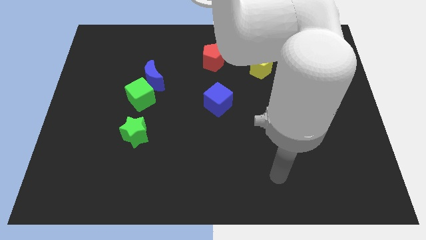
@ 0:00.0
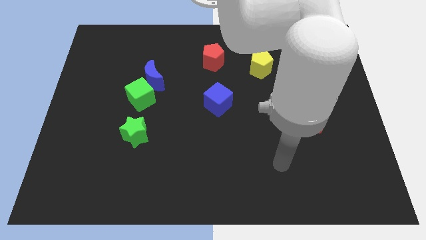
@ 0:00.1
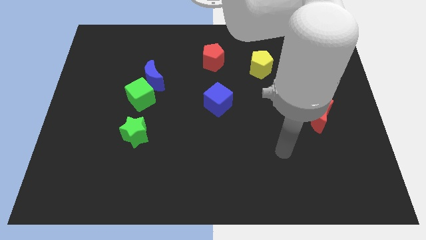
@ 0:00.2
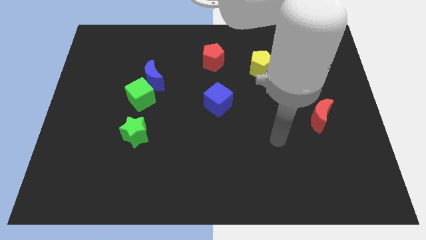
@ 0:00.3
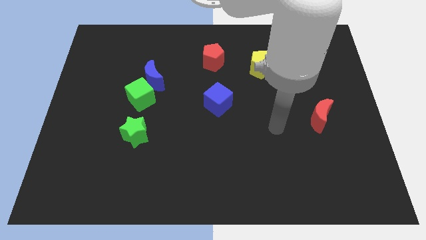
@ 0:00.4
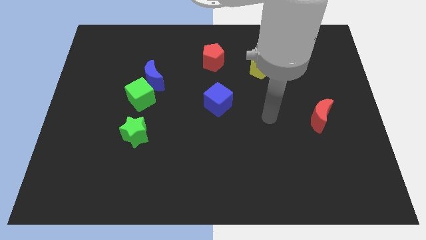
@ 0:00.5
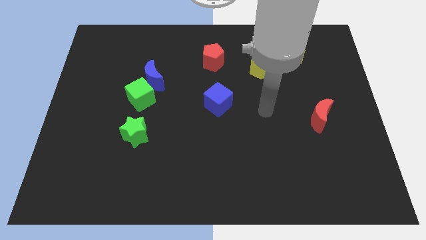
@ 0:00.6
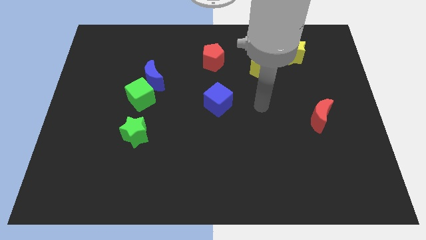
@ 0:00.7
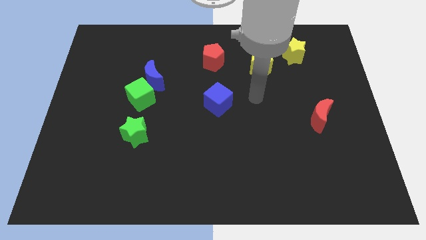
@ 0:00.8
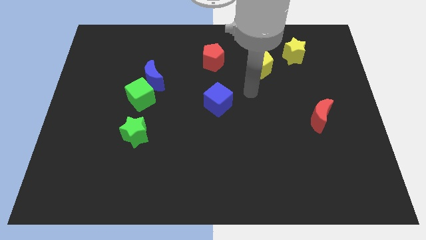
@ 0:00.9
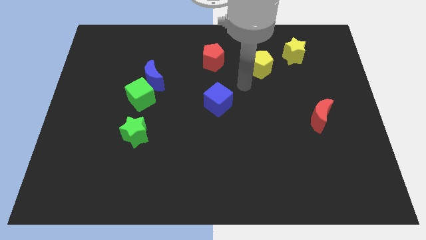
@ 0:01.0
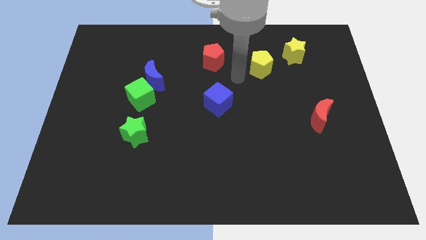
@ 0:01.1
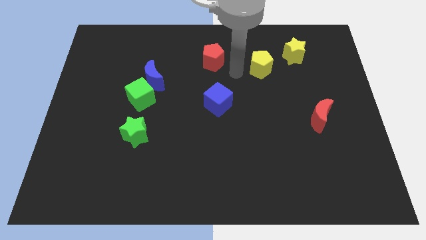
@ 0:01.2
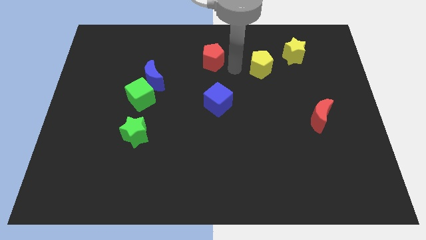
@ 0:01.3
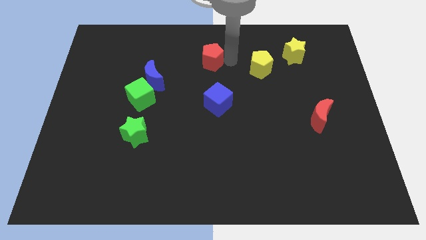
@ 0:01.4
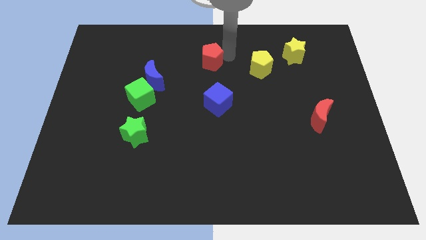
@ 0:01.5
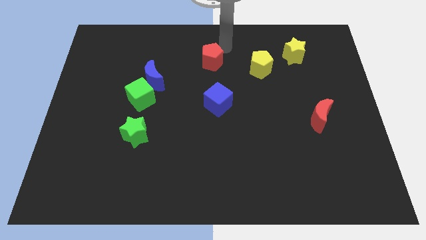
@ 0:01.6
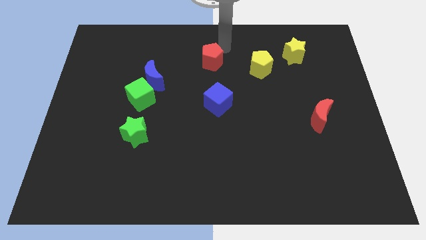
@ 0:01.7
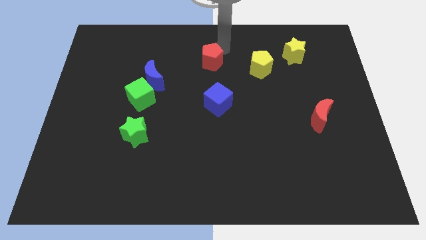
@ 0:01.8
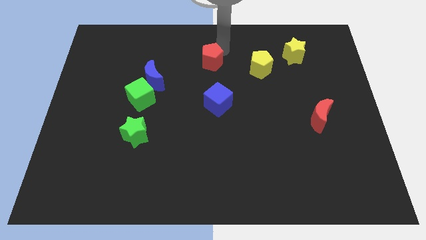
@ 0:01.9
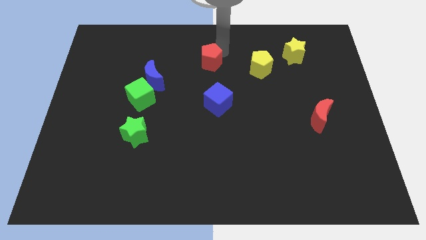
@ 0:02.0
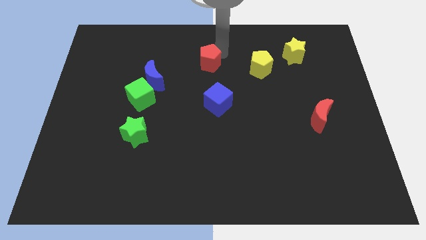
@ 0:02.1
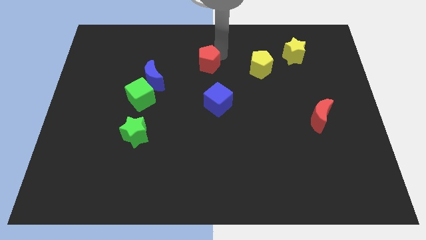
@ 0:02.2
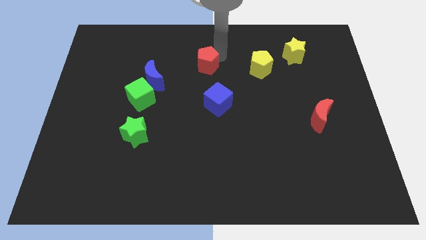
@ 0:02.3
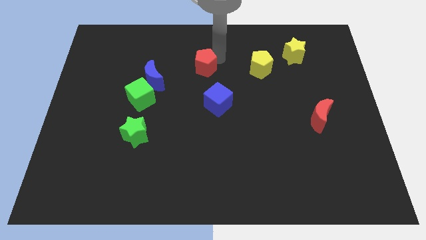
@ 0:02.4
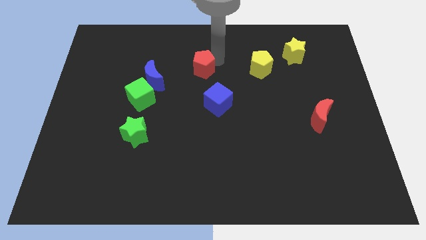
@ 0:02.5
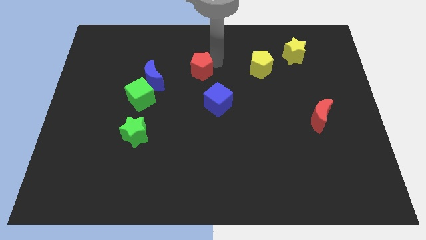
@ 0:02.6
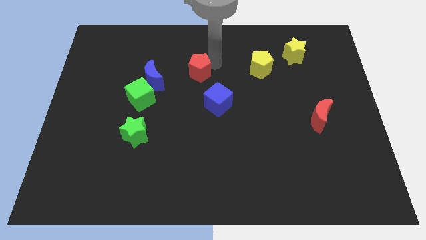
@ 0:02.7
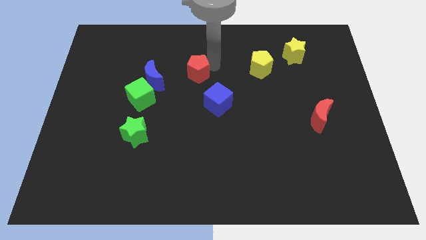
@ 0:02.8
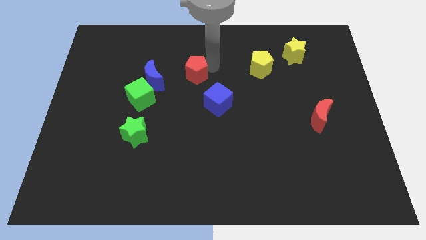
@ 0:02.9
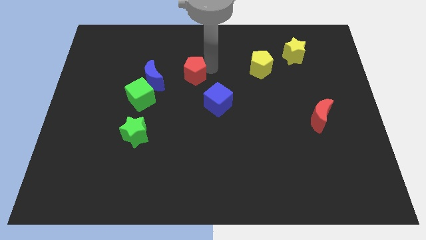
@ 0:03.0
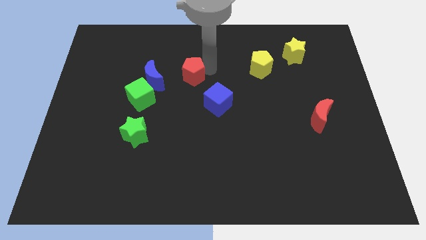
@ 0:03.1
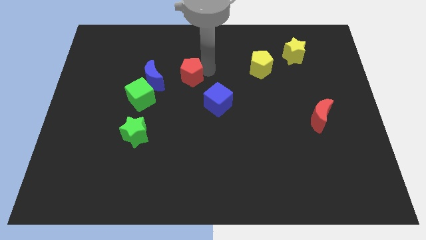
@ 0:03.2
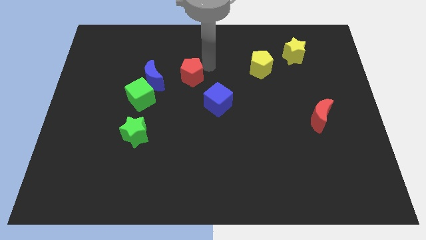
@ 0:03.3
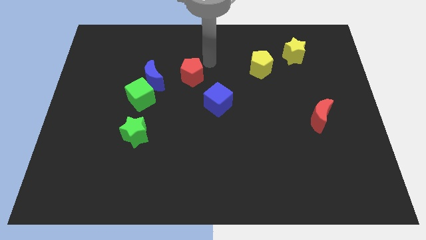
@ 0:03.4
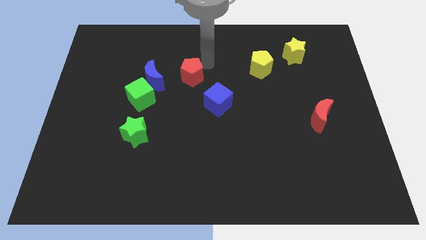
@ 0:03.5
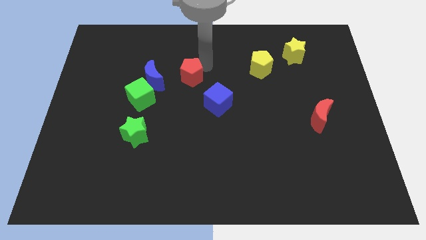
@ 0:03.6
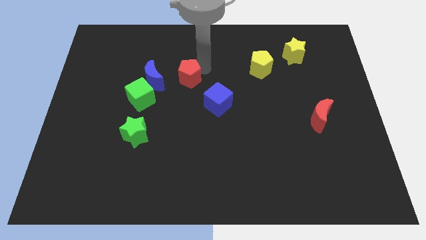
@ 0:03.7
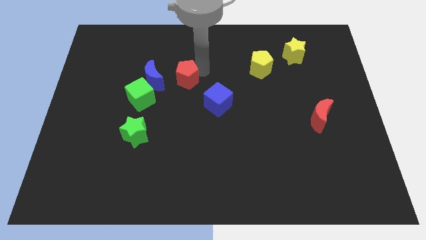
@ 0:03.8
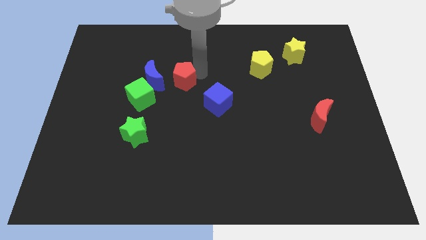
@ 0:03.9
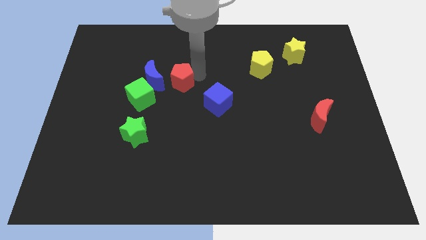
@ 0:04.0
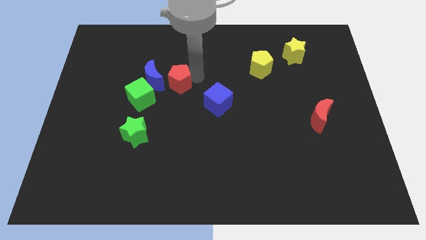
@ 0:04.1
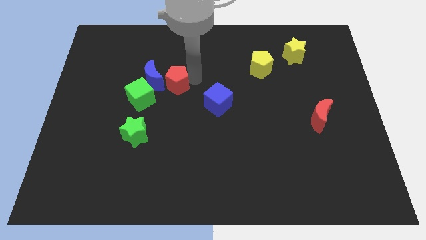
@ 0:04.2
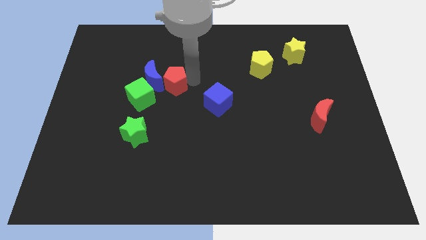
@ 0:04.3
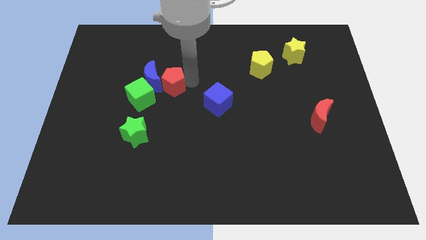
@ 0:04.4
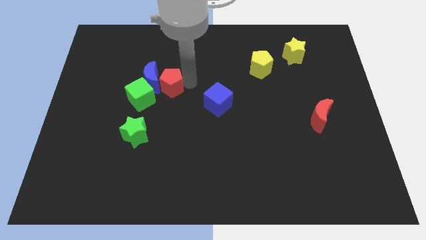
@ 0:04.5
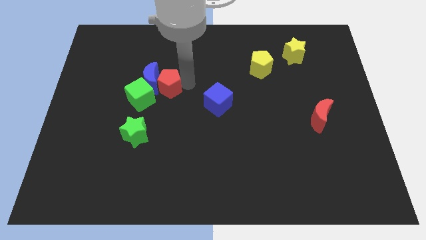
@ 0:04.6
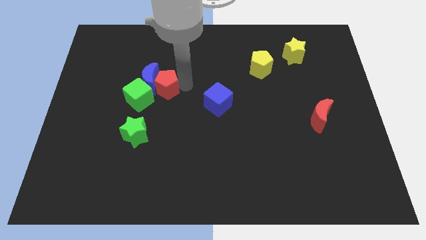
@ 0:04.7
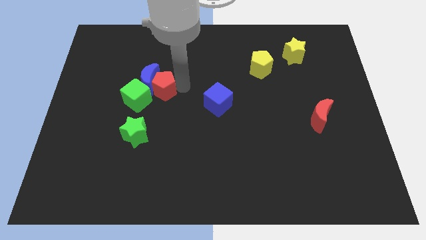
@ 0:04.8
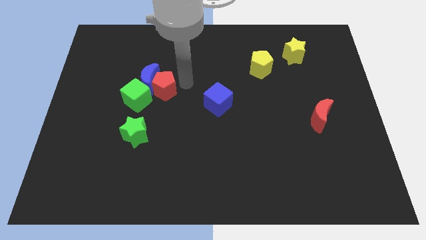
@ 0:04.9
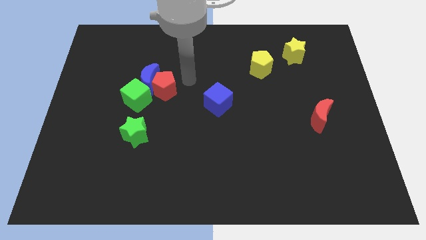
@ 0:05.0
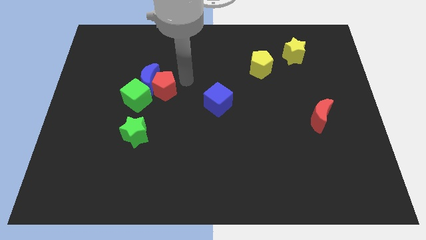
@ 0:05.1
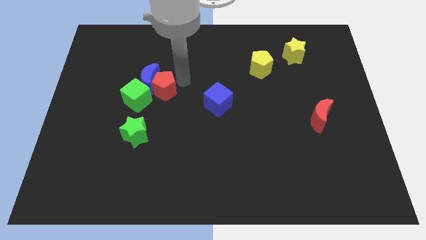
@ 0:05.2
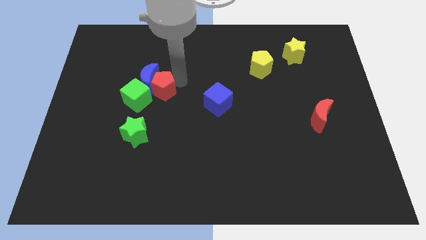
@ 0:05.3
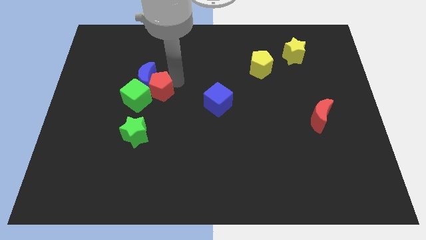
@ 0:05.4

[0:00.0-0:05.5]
put the red pentagon close to the green cube

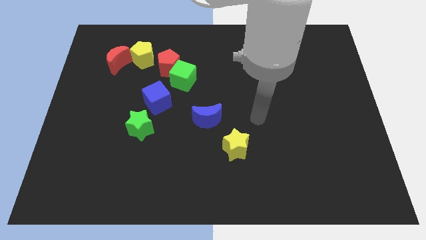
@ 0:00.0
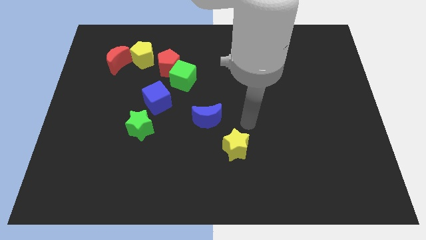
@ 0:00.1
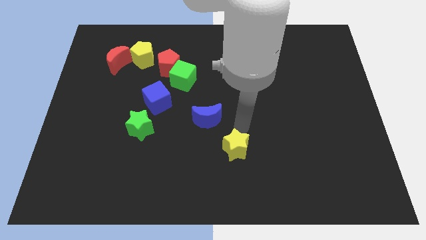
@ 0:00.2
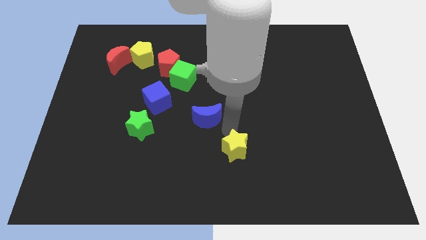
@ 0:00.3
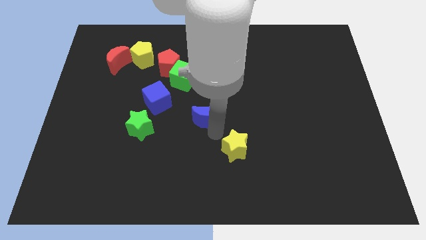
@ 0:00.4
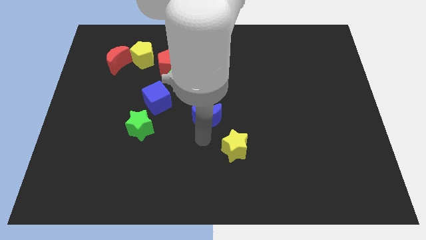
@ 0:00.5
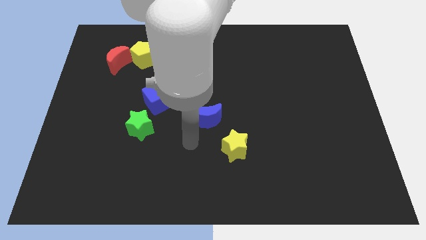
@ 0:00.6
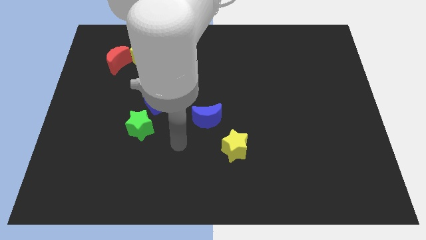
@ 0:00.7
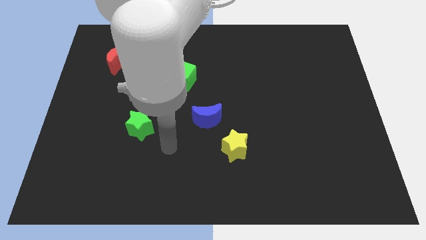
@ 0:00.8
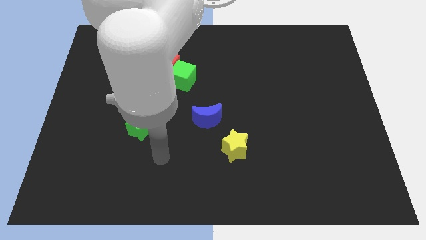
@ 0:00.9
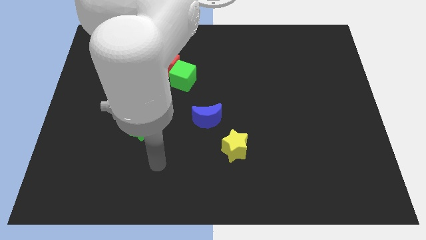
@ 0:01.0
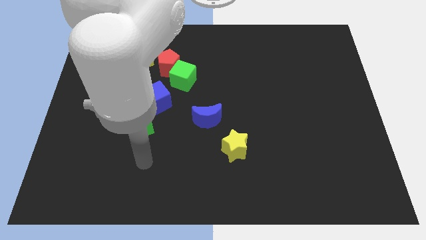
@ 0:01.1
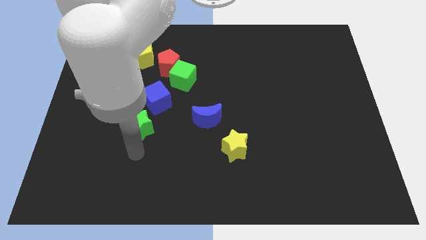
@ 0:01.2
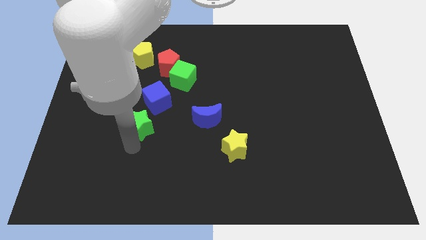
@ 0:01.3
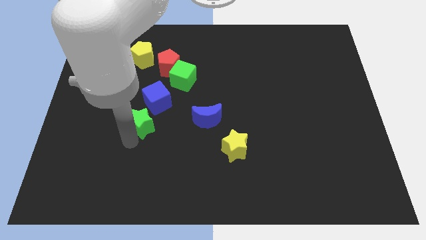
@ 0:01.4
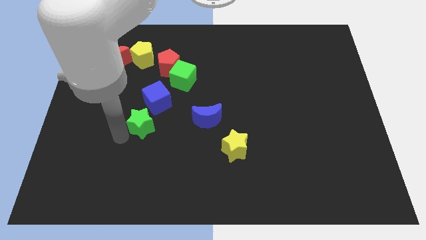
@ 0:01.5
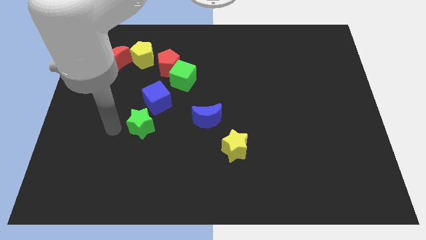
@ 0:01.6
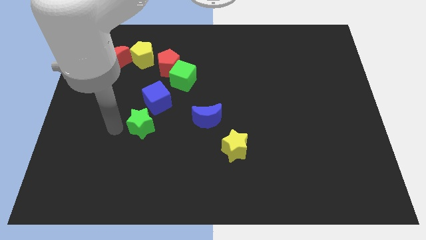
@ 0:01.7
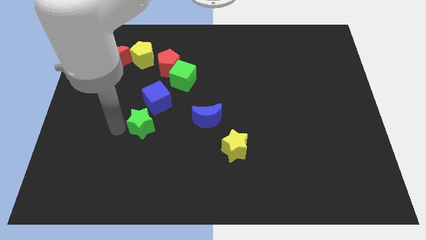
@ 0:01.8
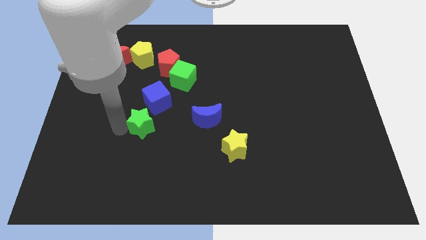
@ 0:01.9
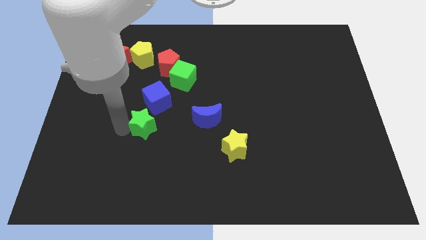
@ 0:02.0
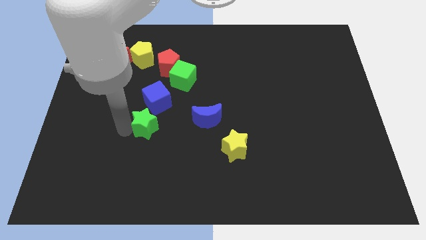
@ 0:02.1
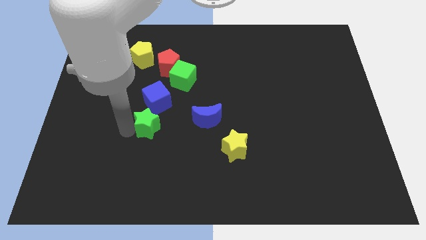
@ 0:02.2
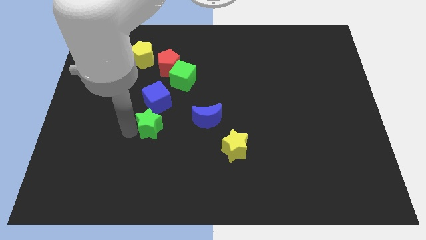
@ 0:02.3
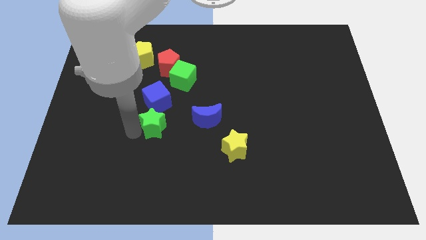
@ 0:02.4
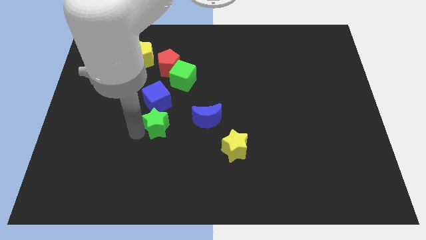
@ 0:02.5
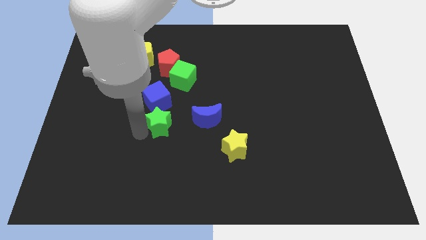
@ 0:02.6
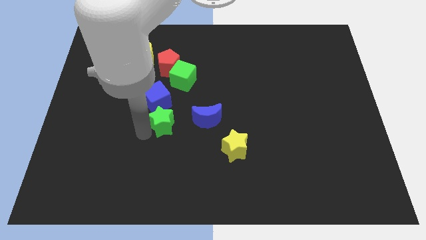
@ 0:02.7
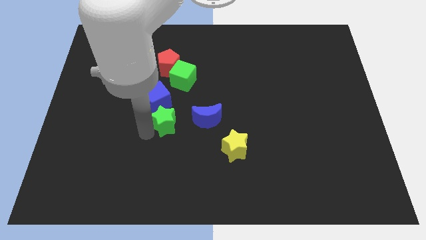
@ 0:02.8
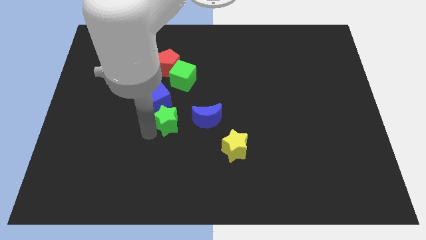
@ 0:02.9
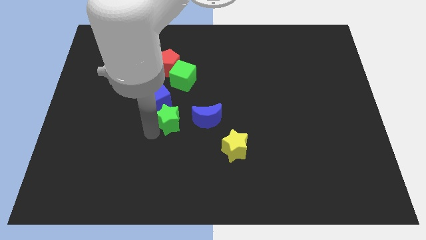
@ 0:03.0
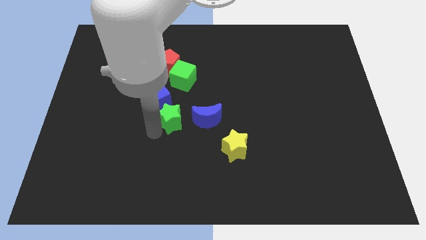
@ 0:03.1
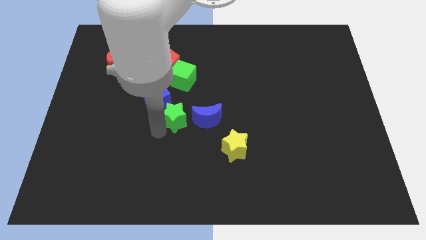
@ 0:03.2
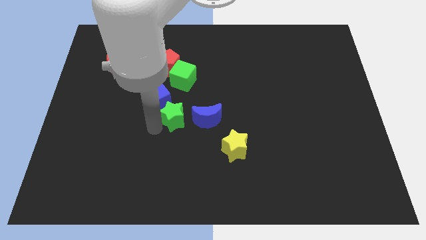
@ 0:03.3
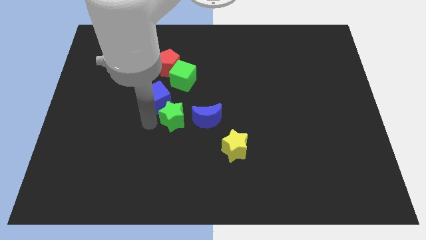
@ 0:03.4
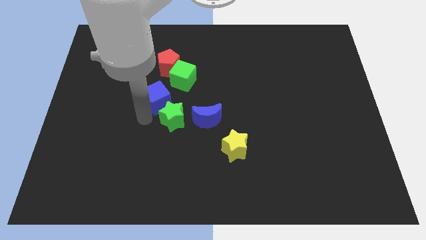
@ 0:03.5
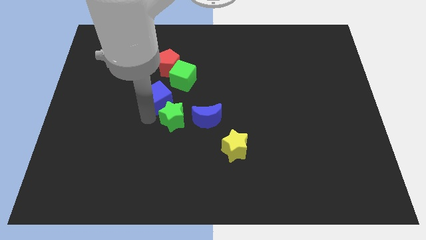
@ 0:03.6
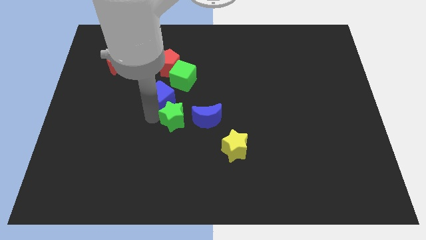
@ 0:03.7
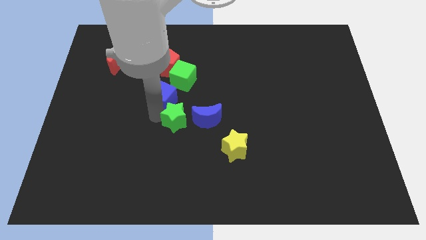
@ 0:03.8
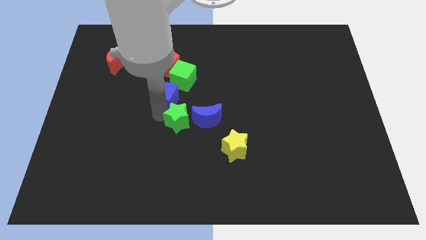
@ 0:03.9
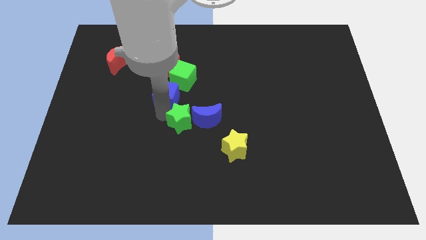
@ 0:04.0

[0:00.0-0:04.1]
put the green star towards the blue moon
